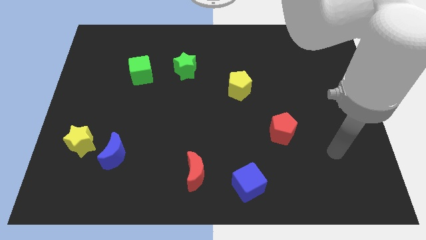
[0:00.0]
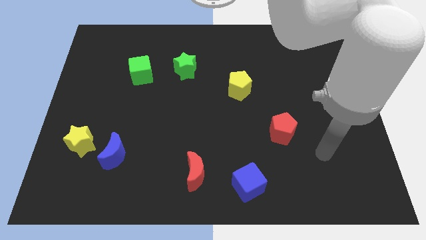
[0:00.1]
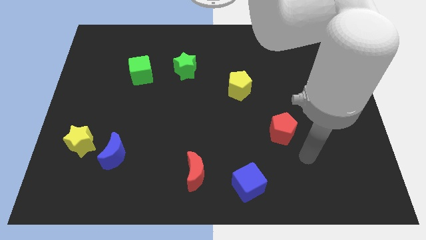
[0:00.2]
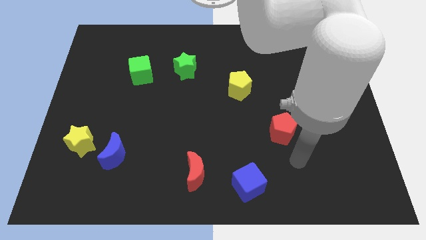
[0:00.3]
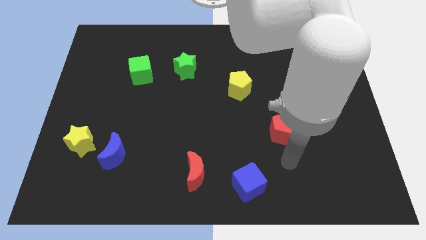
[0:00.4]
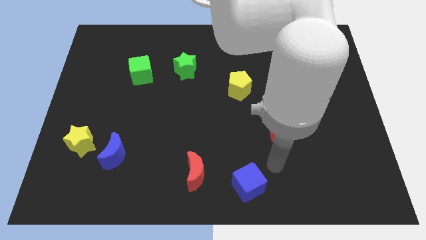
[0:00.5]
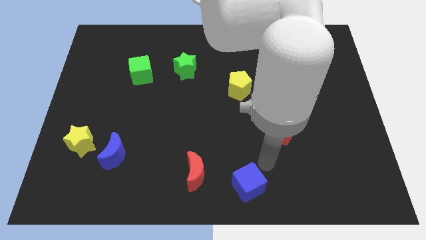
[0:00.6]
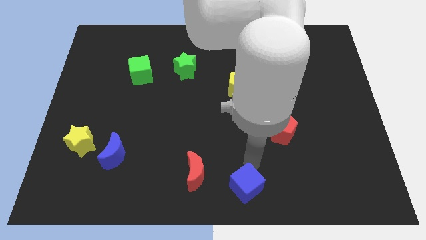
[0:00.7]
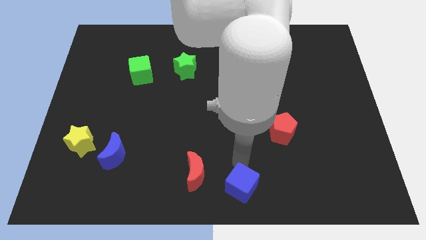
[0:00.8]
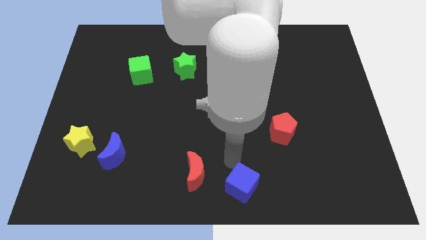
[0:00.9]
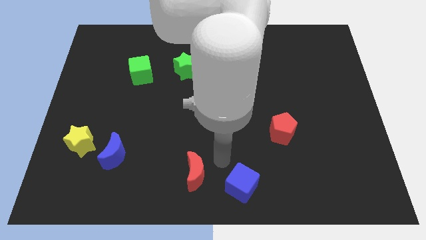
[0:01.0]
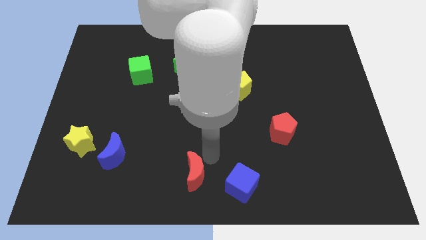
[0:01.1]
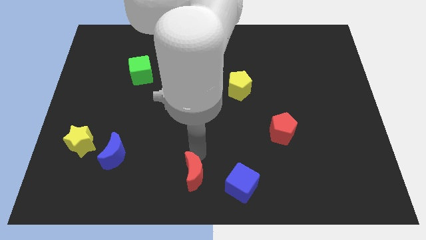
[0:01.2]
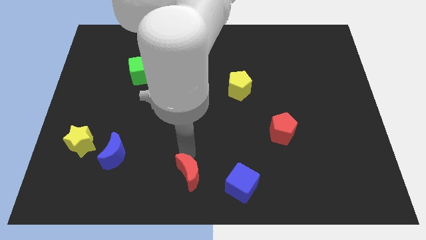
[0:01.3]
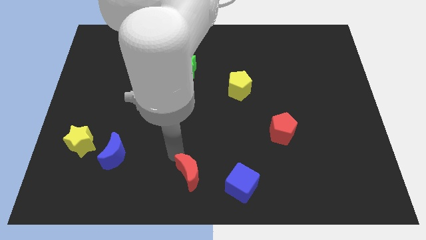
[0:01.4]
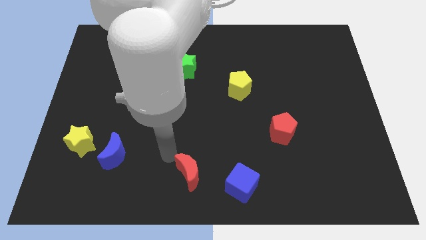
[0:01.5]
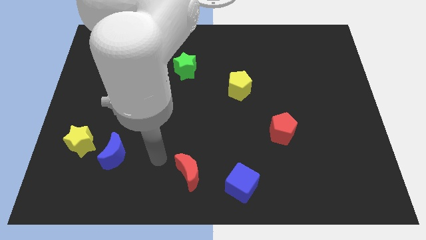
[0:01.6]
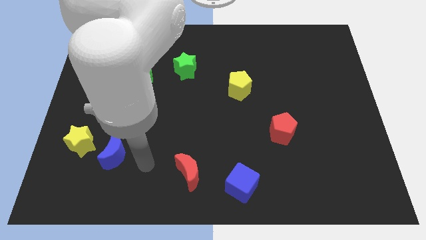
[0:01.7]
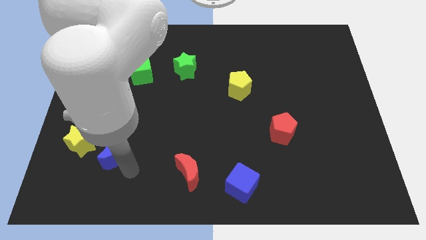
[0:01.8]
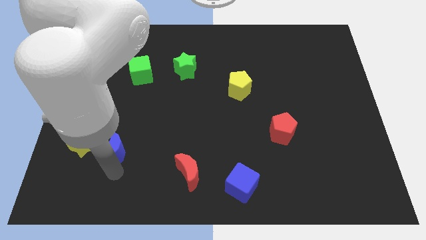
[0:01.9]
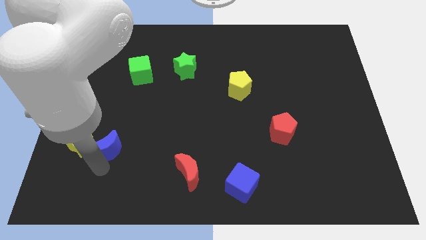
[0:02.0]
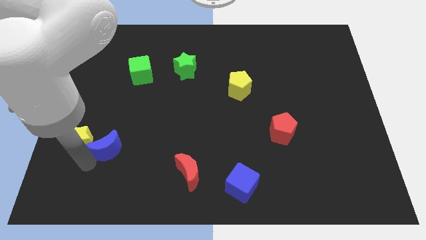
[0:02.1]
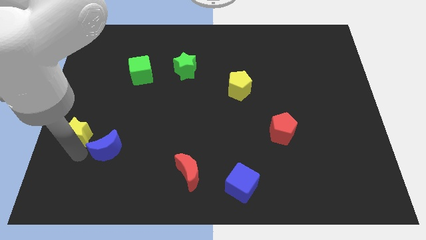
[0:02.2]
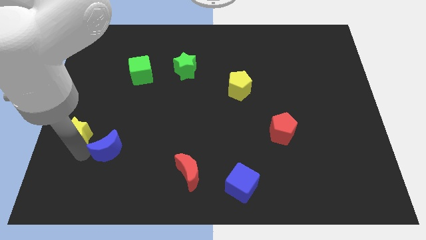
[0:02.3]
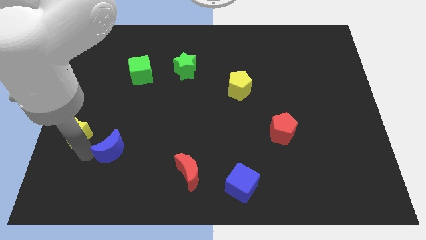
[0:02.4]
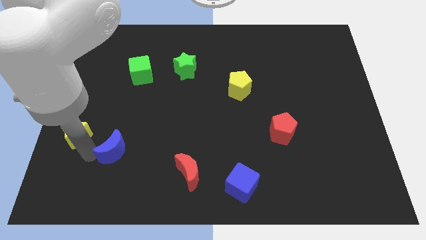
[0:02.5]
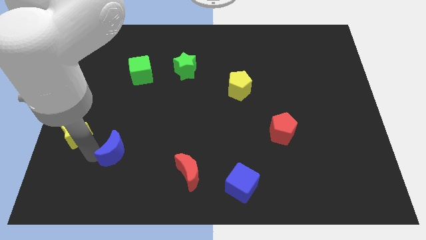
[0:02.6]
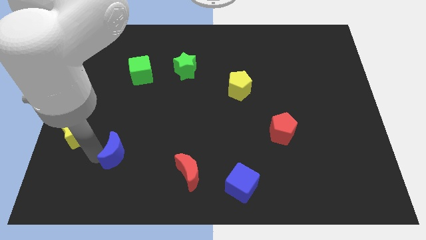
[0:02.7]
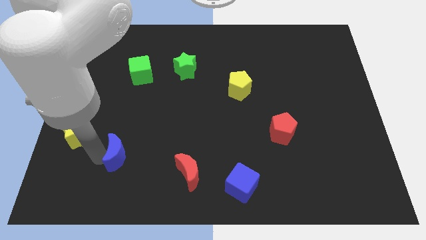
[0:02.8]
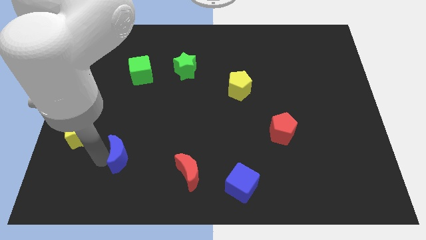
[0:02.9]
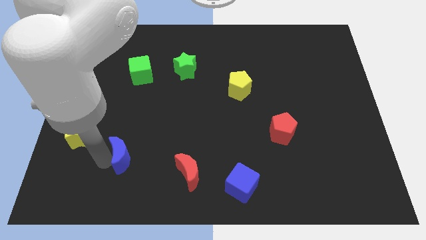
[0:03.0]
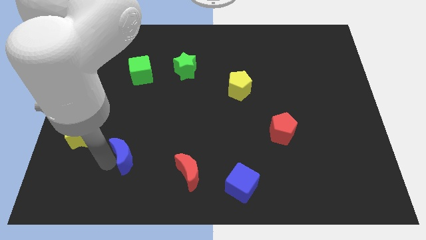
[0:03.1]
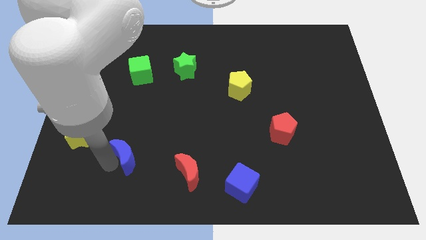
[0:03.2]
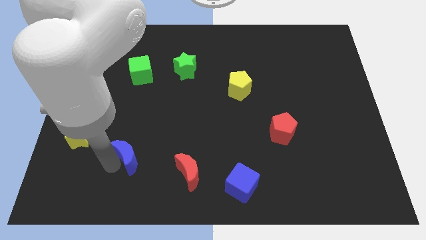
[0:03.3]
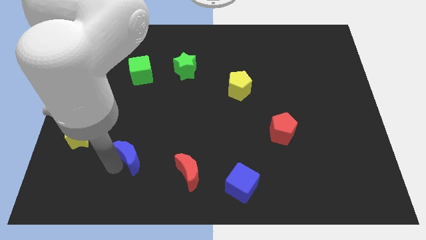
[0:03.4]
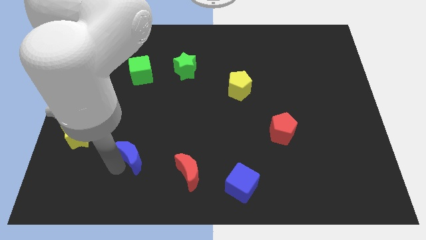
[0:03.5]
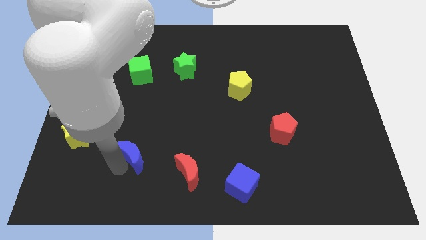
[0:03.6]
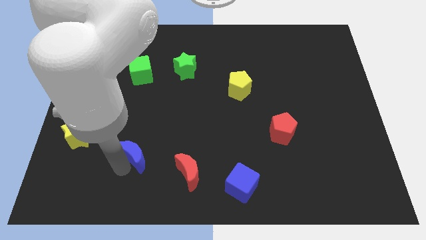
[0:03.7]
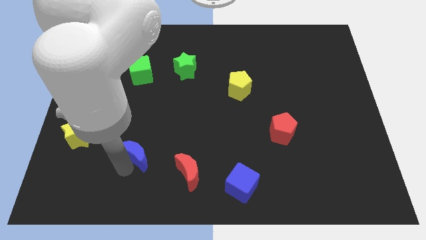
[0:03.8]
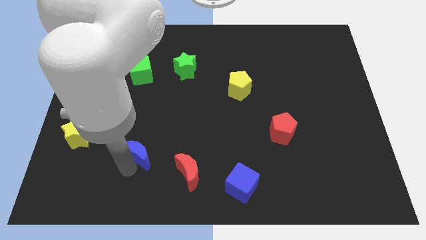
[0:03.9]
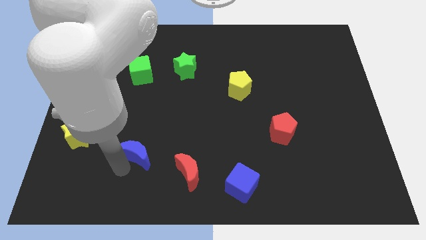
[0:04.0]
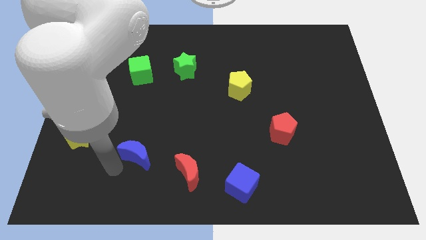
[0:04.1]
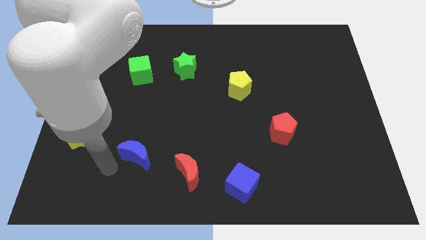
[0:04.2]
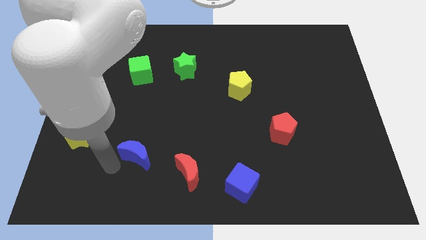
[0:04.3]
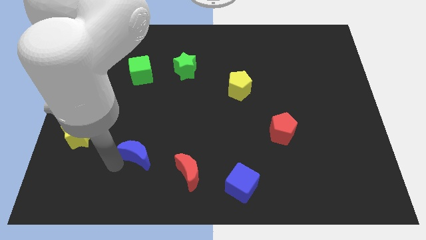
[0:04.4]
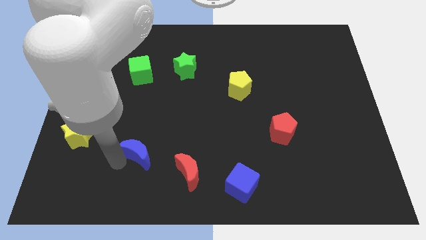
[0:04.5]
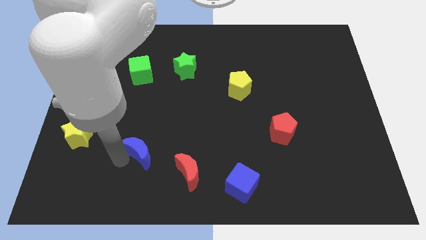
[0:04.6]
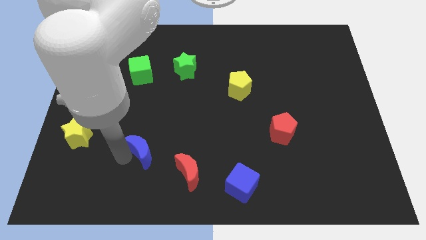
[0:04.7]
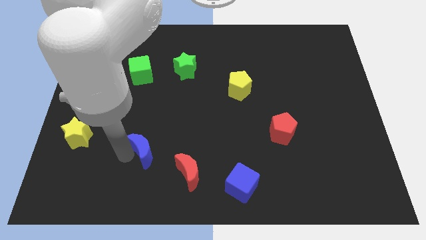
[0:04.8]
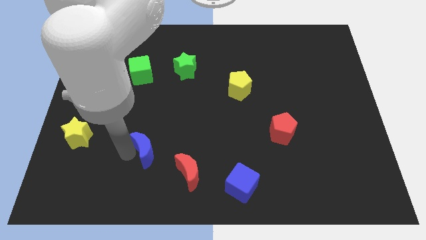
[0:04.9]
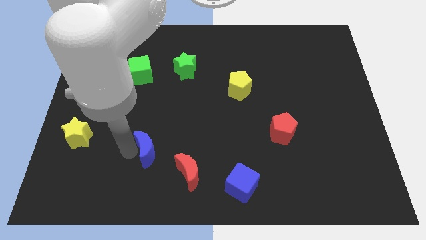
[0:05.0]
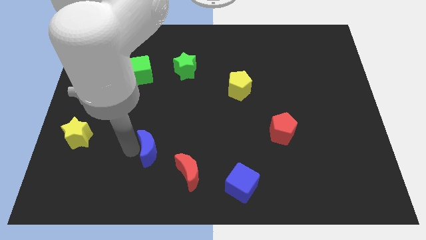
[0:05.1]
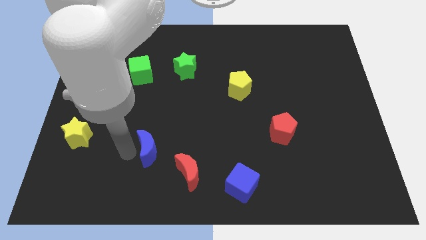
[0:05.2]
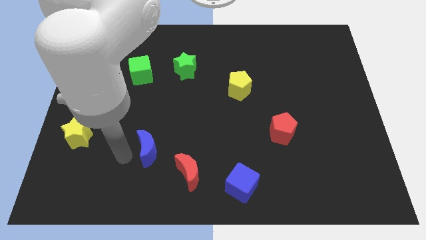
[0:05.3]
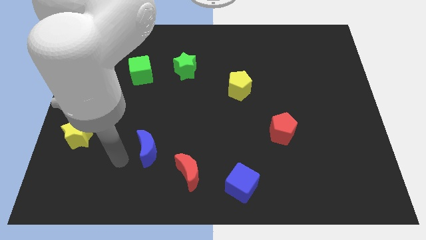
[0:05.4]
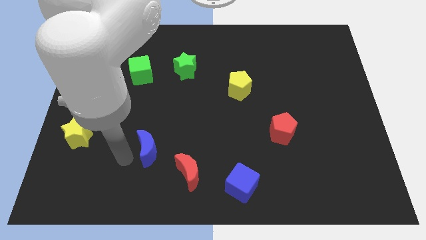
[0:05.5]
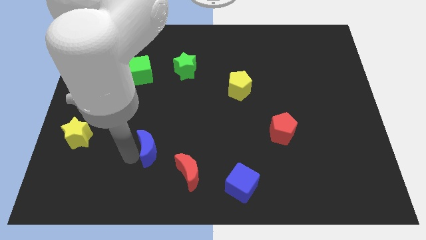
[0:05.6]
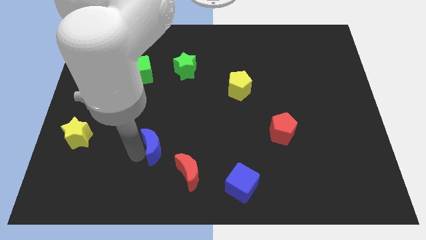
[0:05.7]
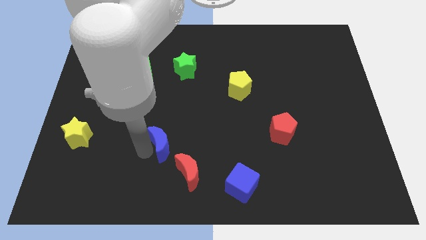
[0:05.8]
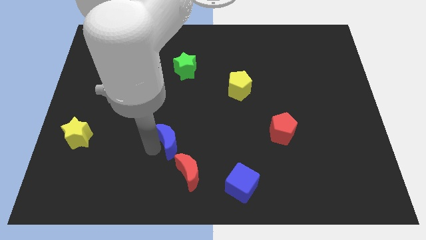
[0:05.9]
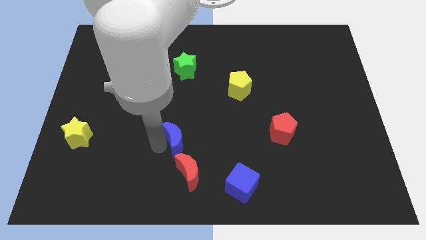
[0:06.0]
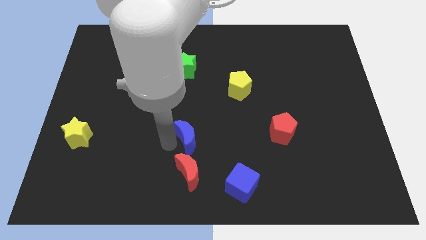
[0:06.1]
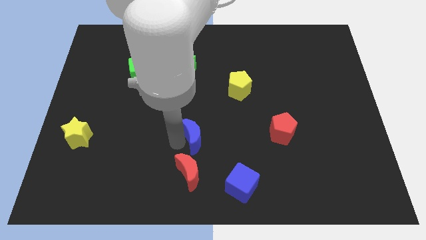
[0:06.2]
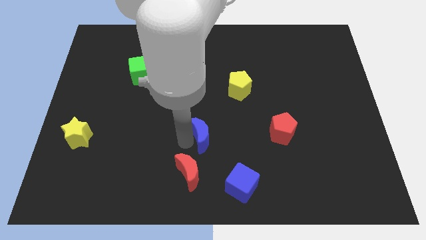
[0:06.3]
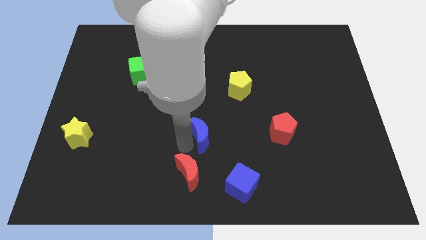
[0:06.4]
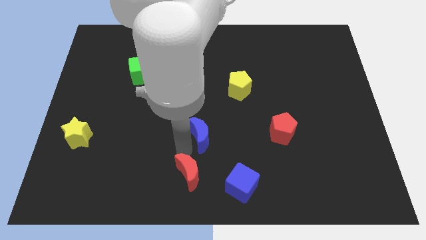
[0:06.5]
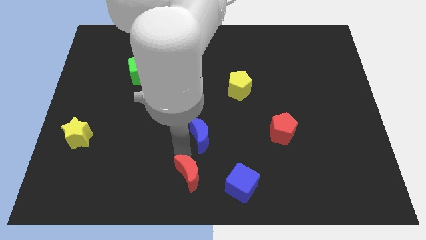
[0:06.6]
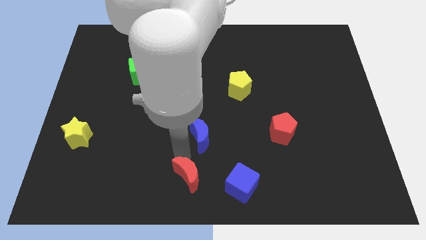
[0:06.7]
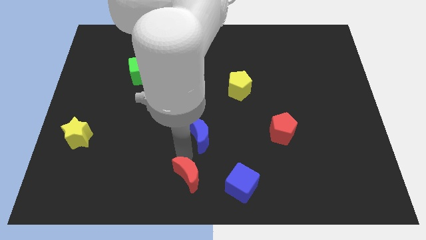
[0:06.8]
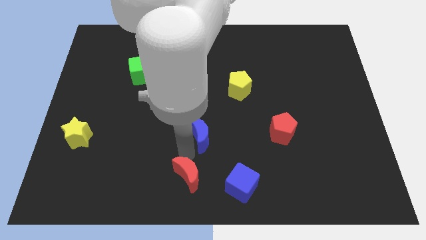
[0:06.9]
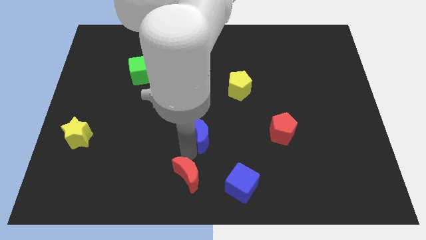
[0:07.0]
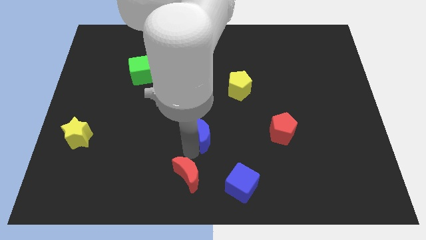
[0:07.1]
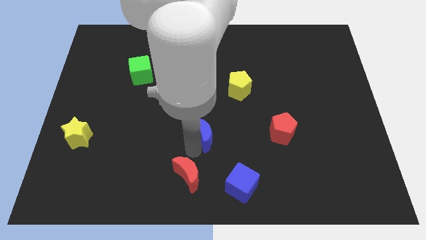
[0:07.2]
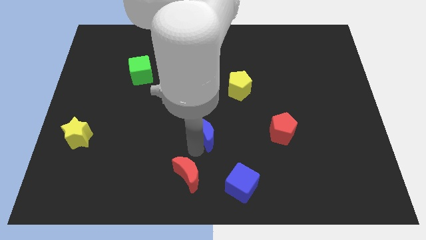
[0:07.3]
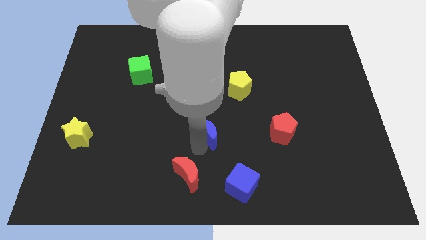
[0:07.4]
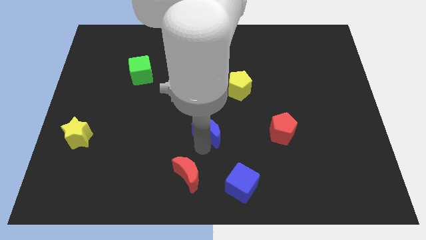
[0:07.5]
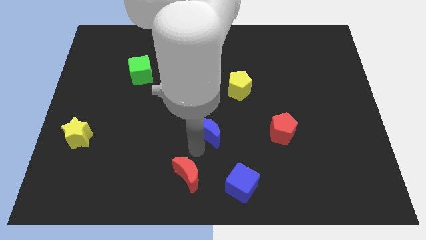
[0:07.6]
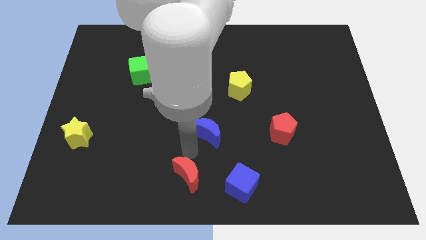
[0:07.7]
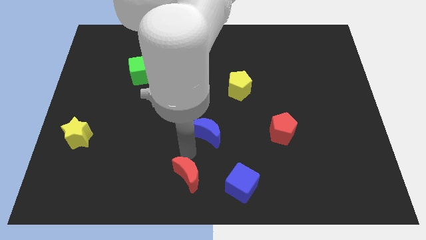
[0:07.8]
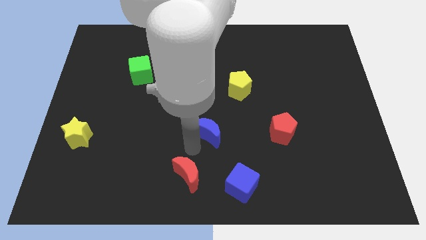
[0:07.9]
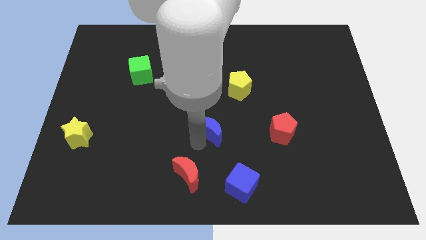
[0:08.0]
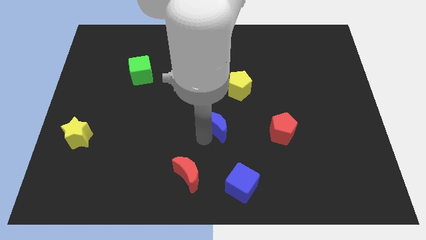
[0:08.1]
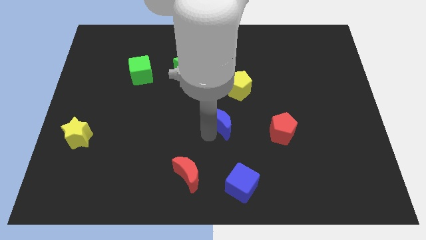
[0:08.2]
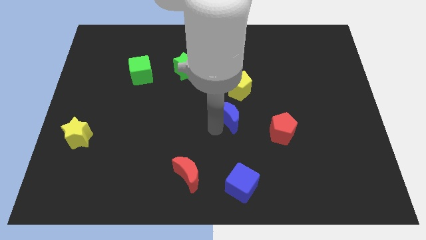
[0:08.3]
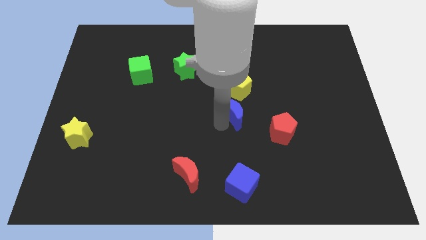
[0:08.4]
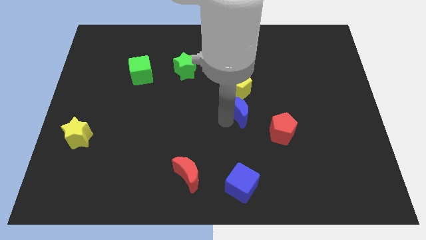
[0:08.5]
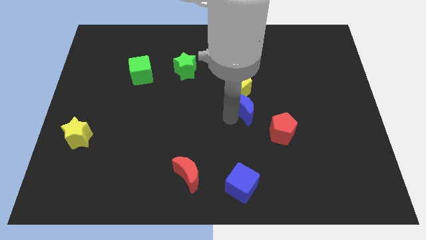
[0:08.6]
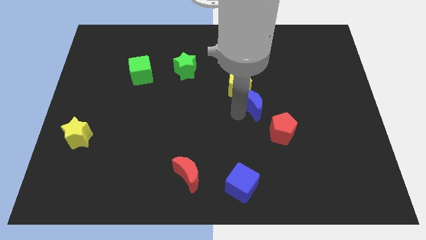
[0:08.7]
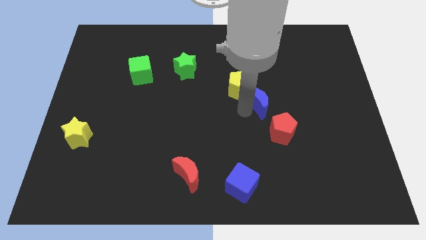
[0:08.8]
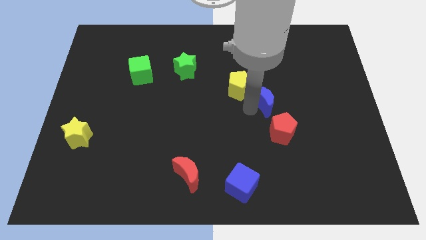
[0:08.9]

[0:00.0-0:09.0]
put the blue moon to the right of the yellow pentagon
